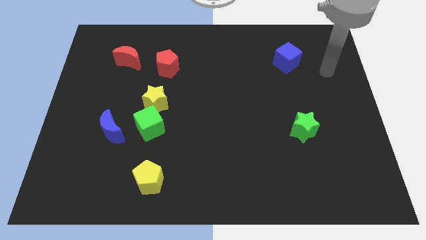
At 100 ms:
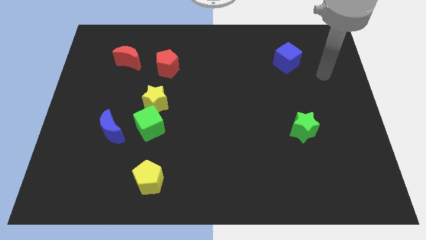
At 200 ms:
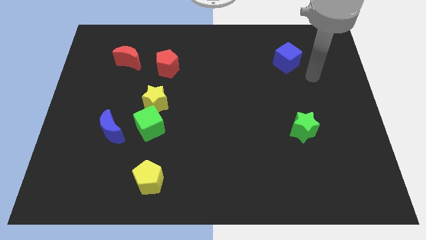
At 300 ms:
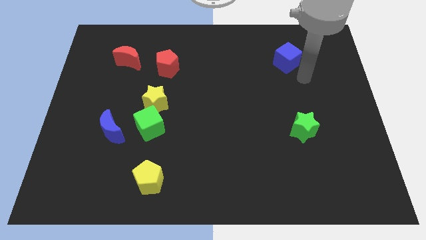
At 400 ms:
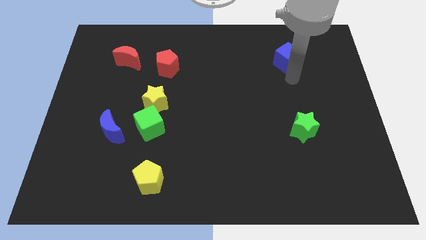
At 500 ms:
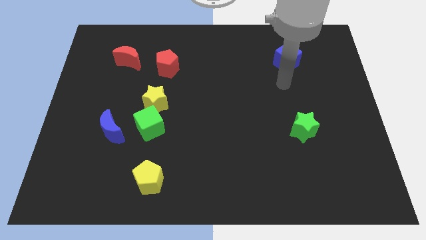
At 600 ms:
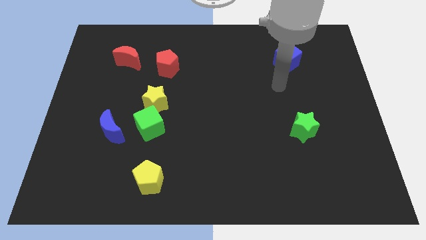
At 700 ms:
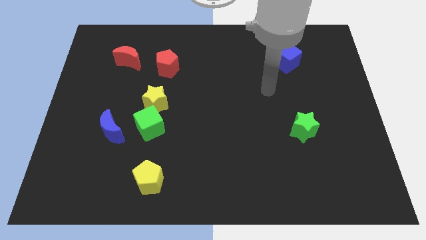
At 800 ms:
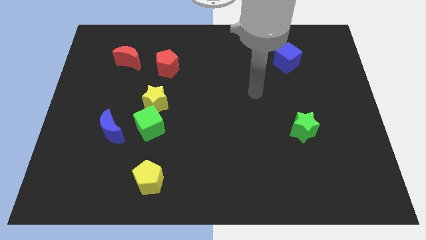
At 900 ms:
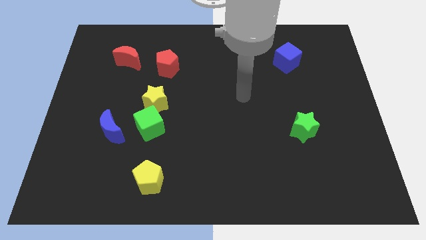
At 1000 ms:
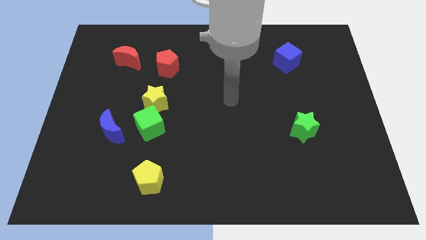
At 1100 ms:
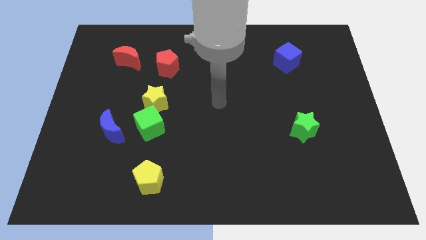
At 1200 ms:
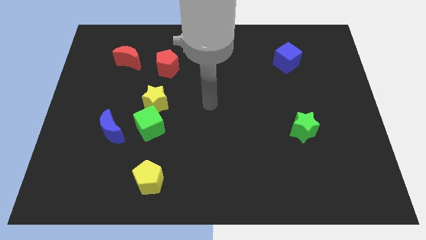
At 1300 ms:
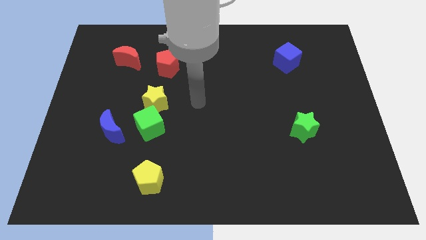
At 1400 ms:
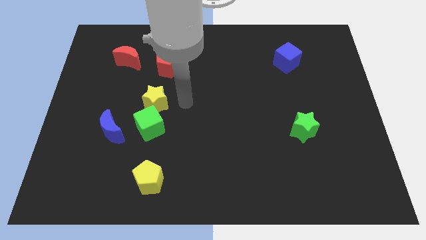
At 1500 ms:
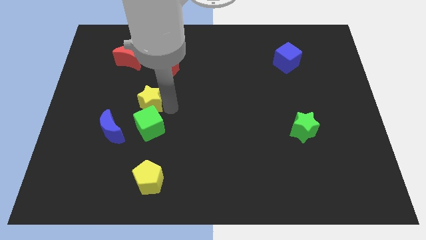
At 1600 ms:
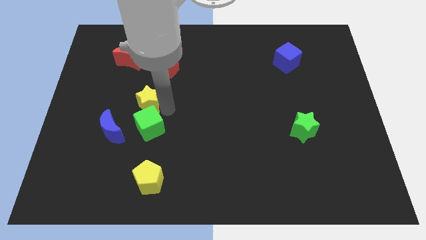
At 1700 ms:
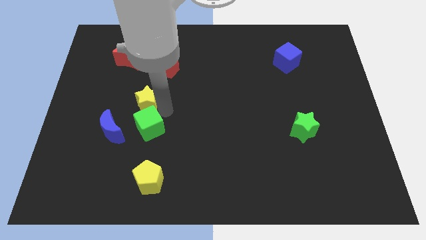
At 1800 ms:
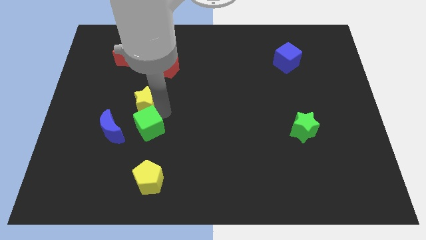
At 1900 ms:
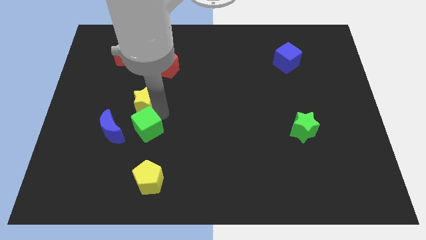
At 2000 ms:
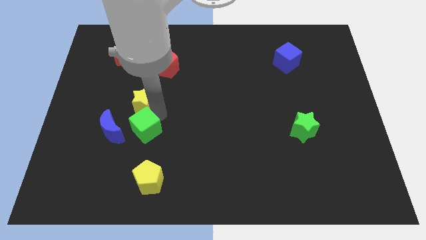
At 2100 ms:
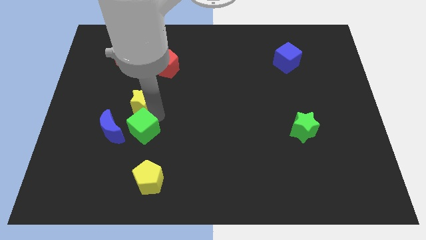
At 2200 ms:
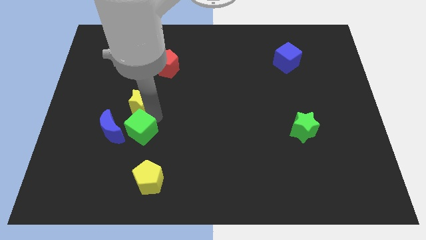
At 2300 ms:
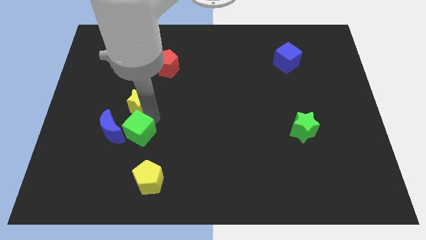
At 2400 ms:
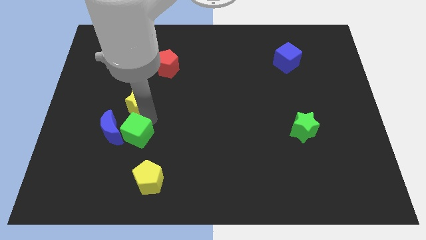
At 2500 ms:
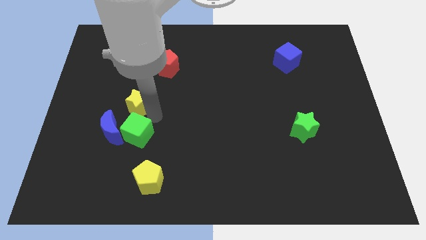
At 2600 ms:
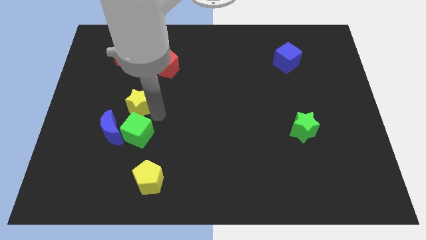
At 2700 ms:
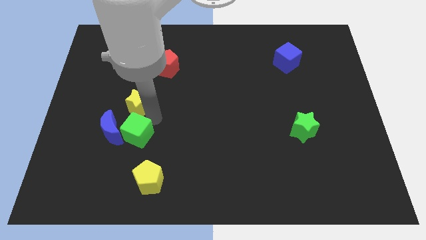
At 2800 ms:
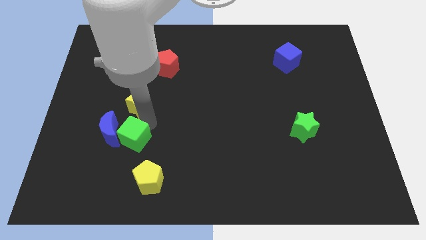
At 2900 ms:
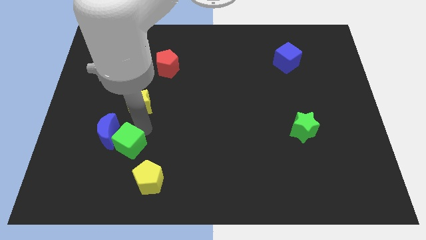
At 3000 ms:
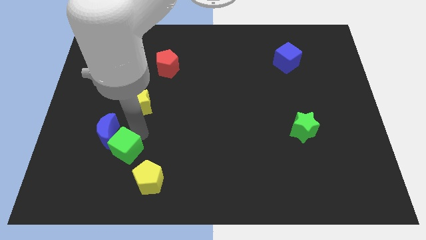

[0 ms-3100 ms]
push the green cube down and left diagonally a bit

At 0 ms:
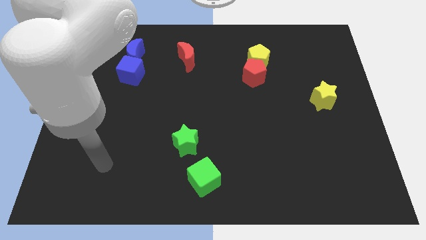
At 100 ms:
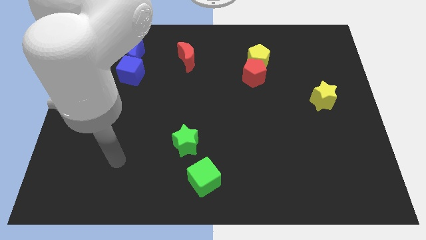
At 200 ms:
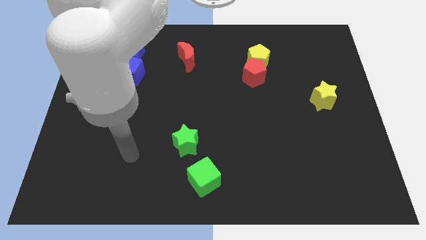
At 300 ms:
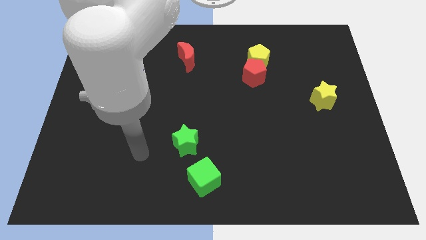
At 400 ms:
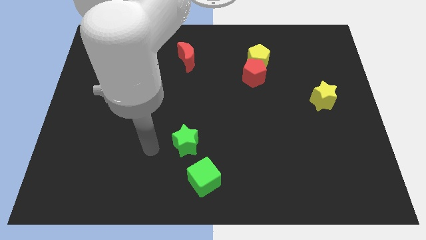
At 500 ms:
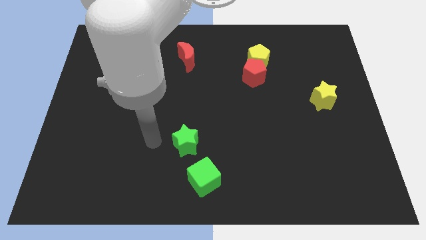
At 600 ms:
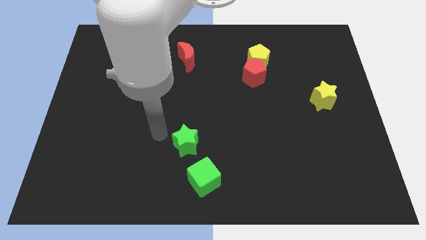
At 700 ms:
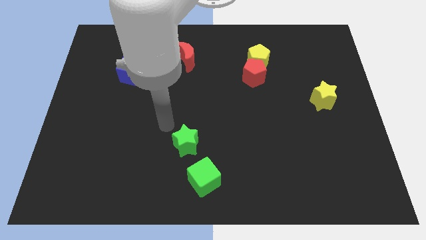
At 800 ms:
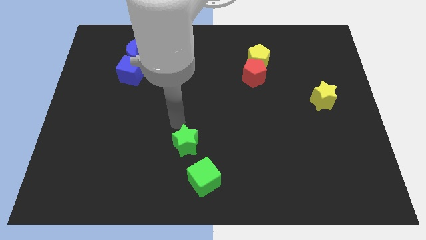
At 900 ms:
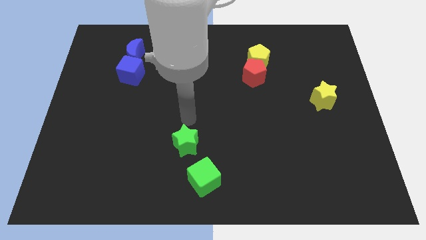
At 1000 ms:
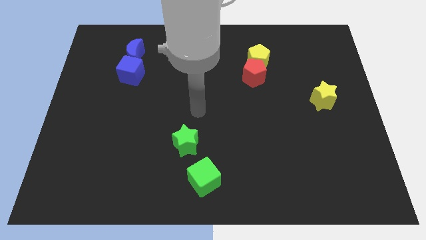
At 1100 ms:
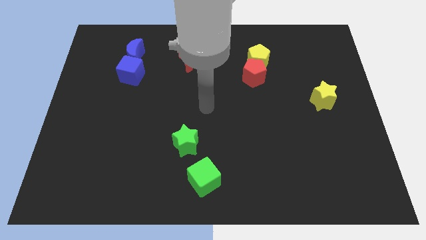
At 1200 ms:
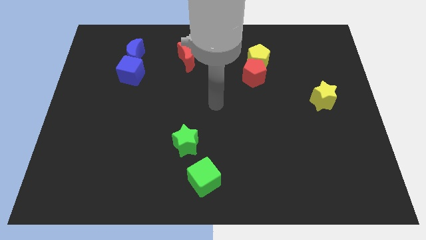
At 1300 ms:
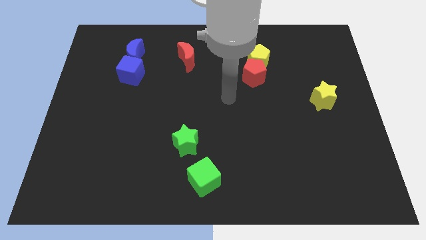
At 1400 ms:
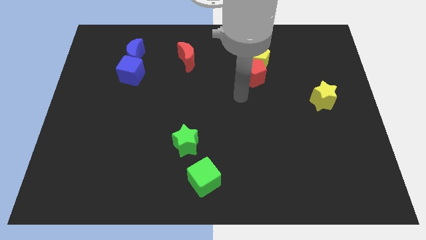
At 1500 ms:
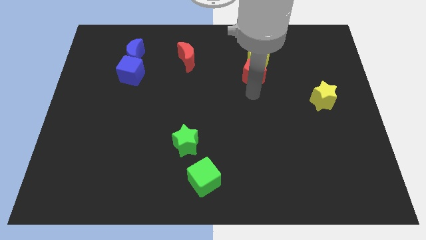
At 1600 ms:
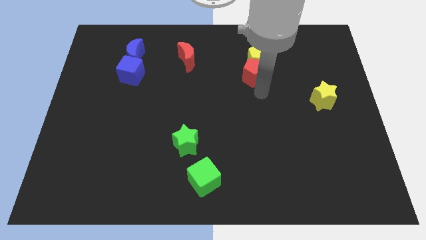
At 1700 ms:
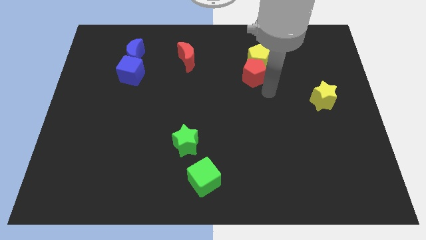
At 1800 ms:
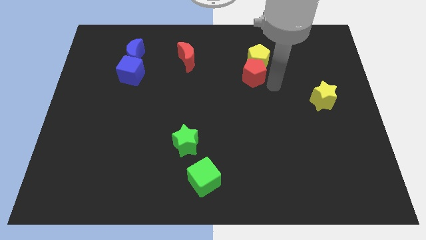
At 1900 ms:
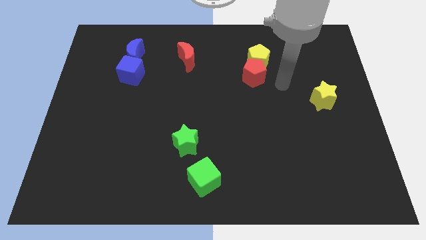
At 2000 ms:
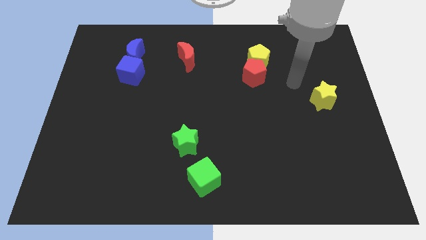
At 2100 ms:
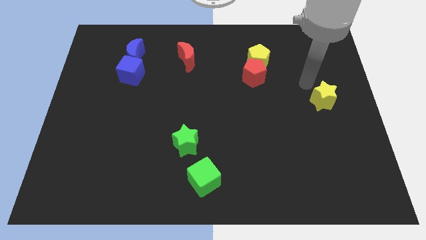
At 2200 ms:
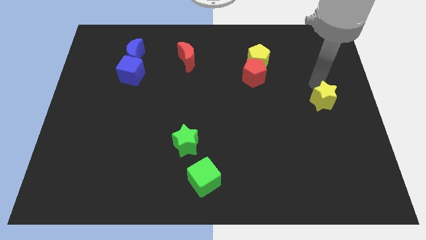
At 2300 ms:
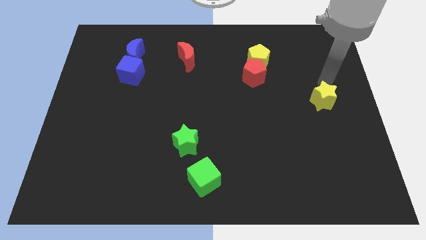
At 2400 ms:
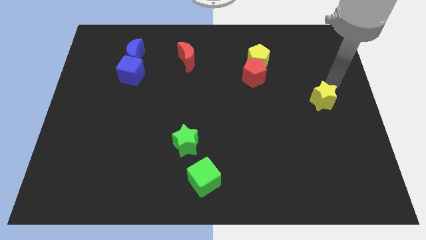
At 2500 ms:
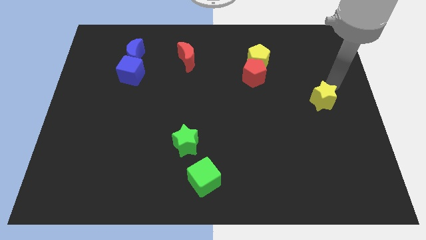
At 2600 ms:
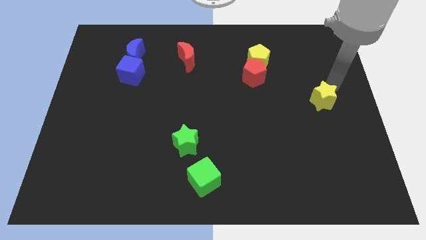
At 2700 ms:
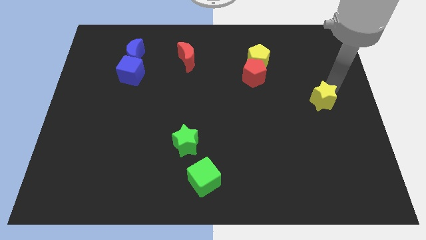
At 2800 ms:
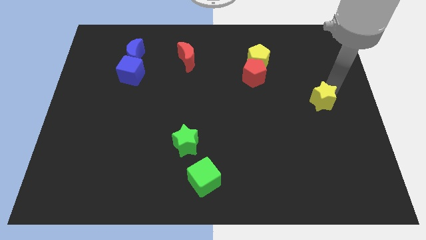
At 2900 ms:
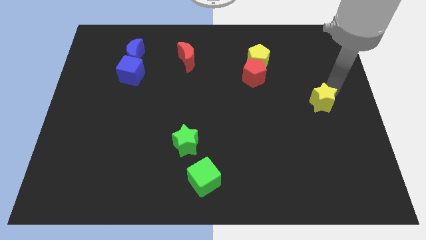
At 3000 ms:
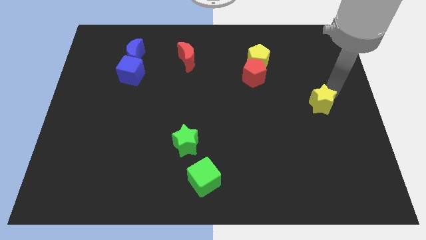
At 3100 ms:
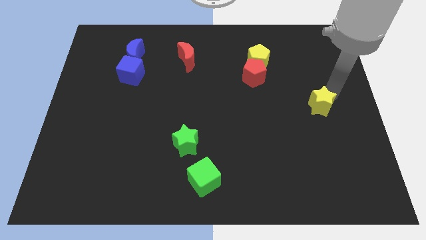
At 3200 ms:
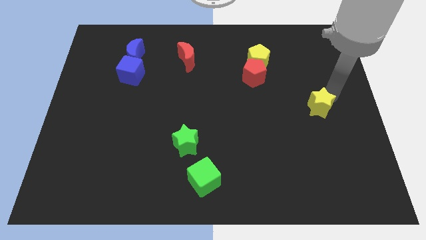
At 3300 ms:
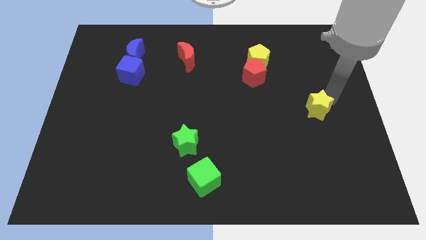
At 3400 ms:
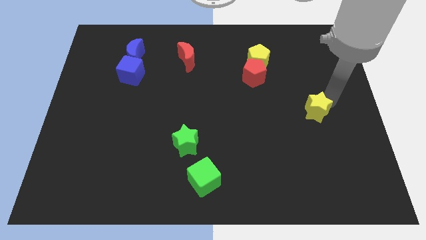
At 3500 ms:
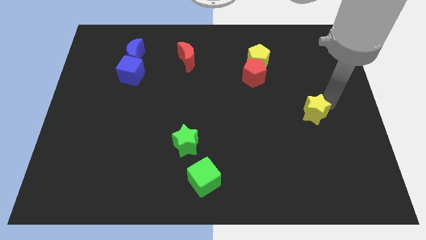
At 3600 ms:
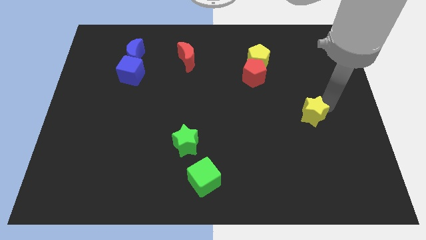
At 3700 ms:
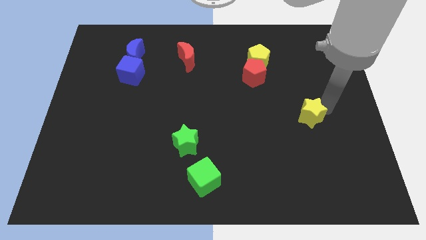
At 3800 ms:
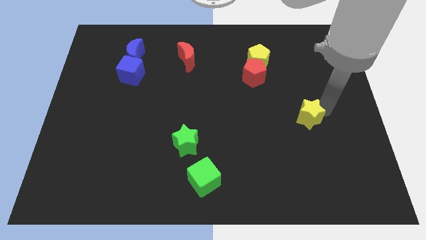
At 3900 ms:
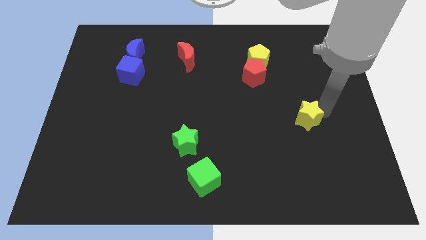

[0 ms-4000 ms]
slide the yellow star somewhat down and left

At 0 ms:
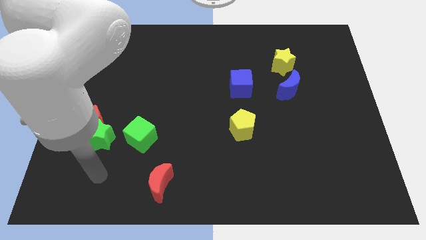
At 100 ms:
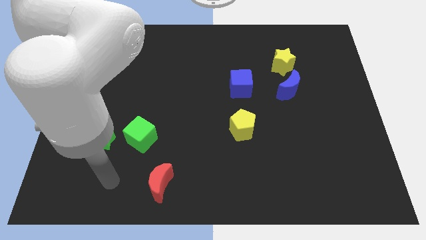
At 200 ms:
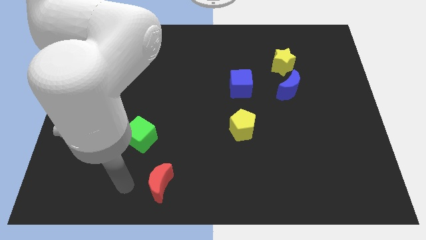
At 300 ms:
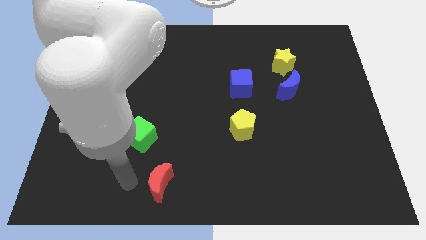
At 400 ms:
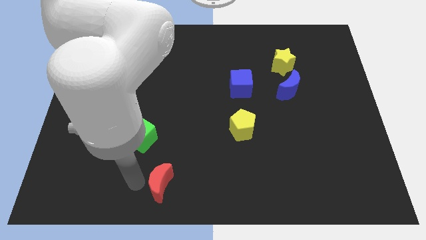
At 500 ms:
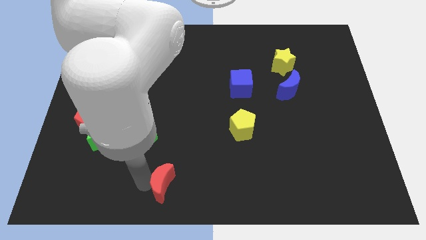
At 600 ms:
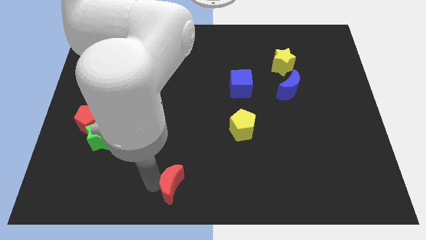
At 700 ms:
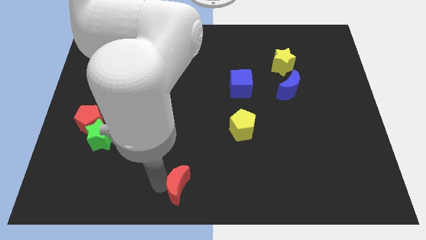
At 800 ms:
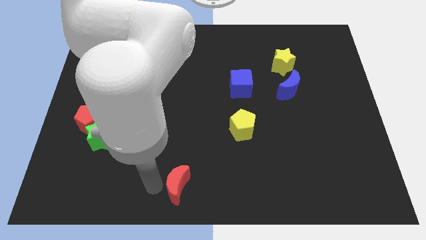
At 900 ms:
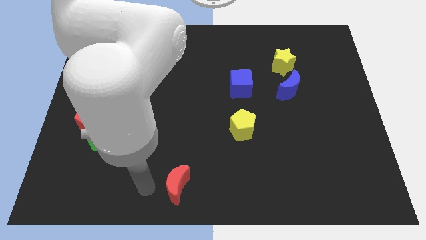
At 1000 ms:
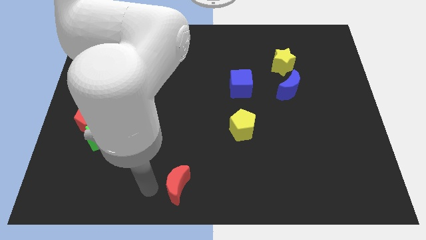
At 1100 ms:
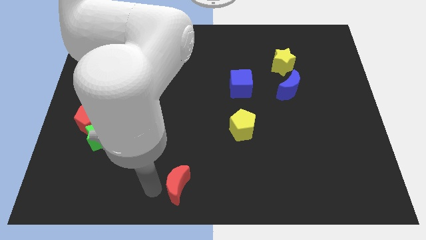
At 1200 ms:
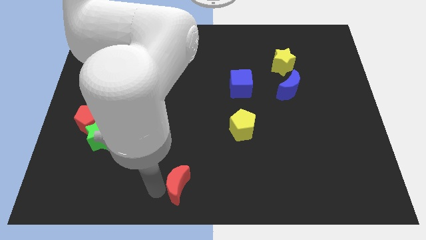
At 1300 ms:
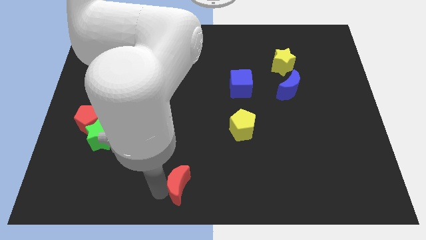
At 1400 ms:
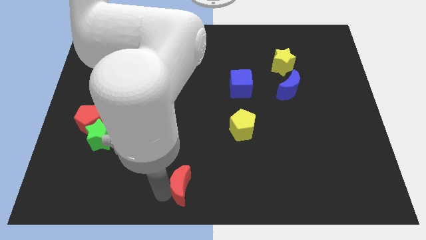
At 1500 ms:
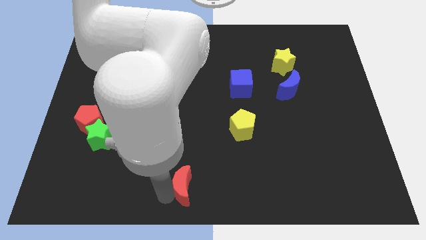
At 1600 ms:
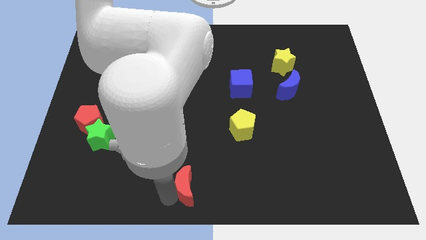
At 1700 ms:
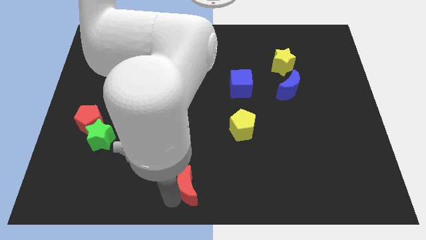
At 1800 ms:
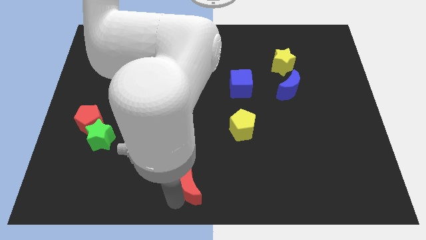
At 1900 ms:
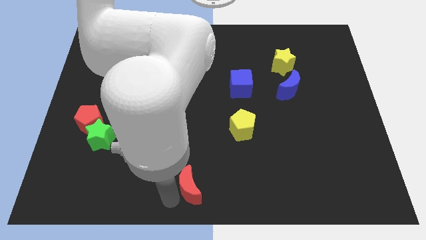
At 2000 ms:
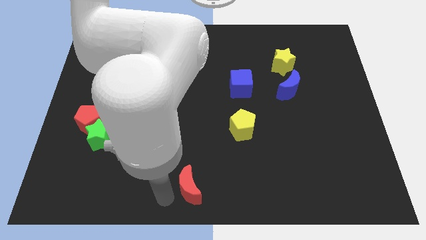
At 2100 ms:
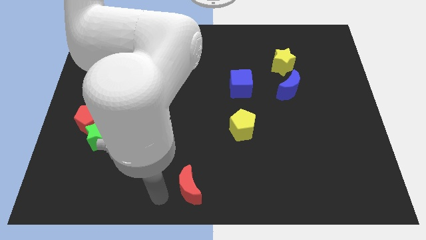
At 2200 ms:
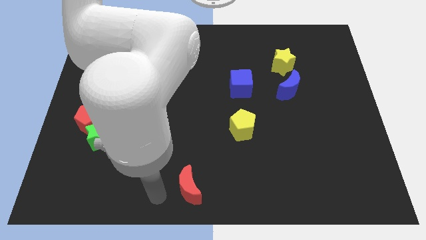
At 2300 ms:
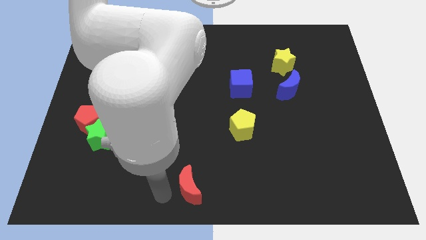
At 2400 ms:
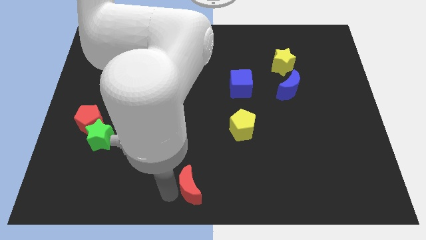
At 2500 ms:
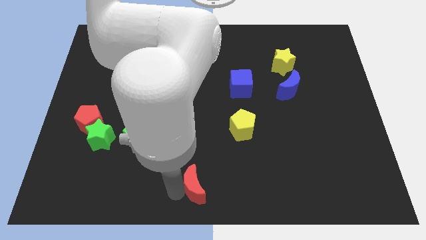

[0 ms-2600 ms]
move the red moon right a little
